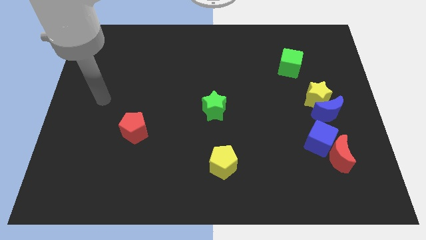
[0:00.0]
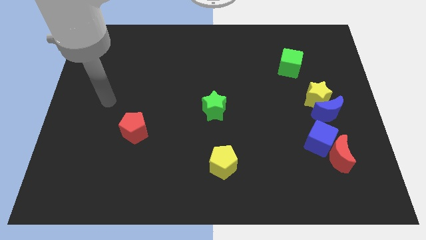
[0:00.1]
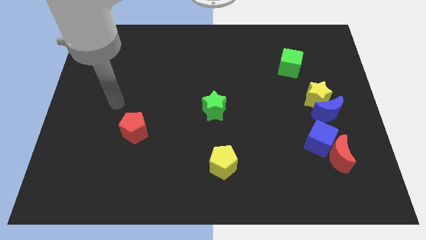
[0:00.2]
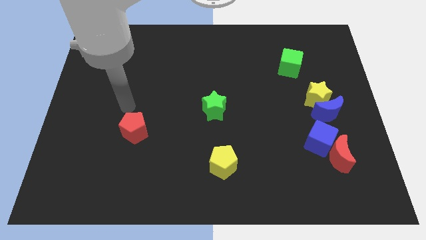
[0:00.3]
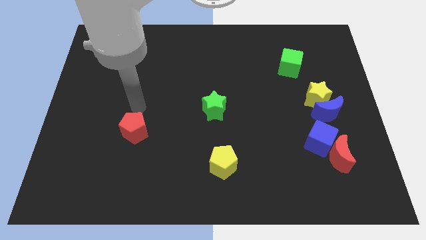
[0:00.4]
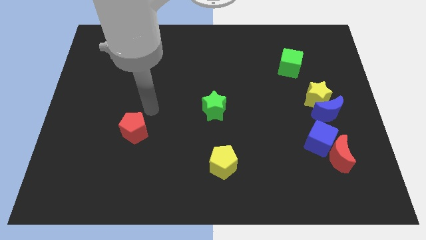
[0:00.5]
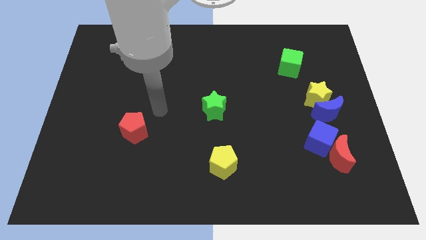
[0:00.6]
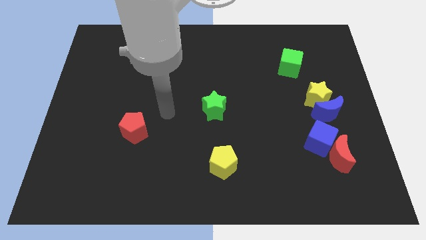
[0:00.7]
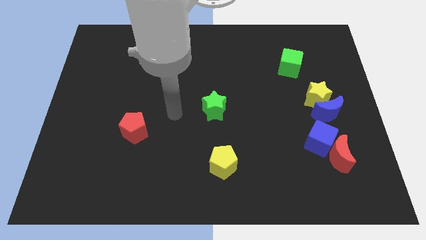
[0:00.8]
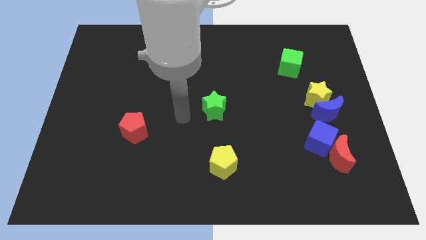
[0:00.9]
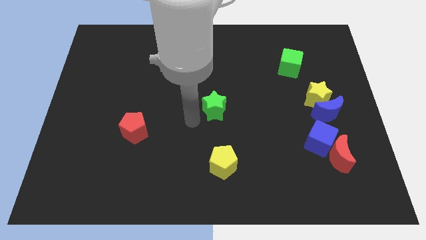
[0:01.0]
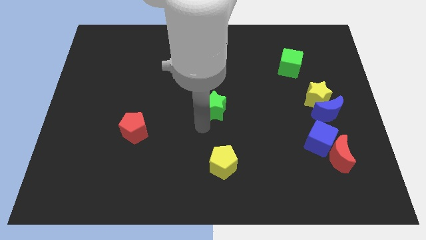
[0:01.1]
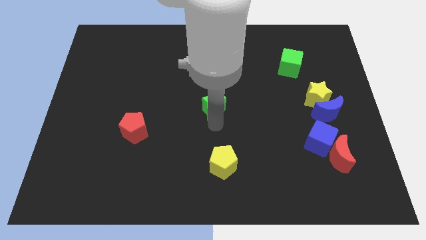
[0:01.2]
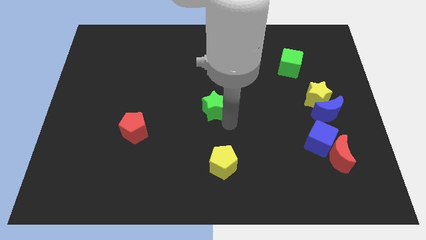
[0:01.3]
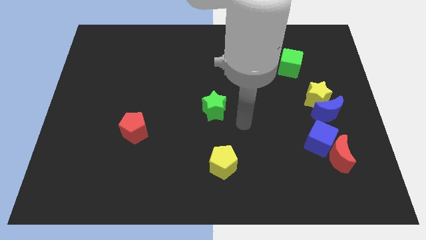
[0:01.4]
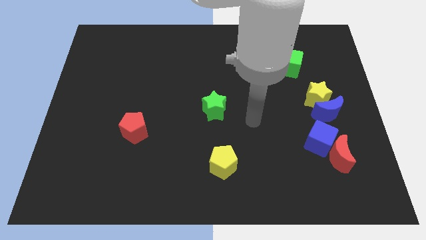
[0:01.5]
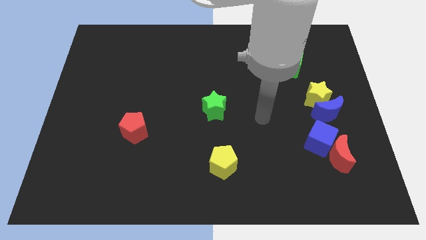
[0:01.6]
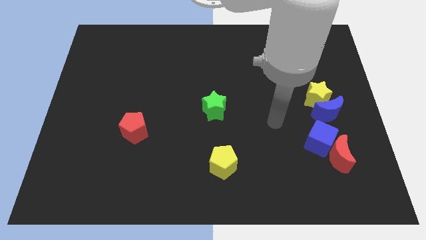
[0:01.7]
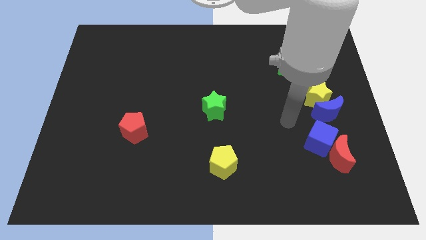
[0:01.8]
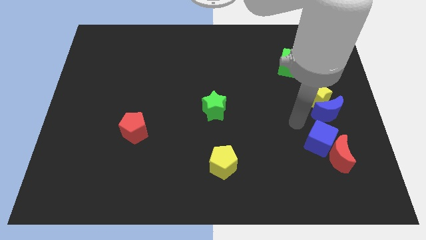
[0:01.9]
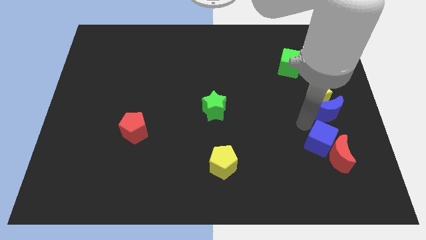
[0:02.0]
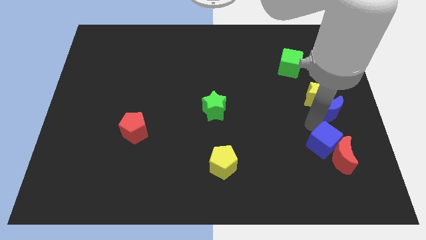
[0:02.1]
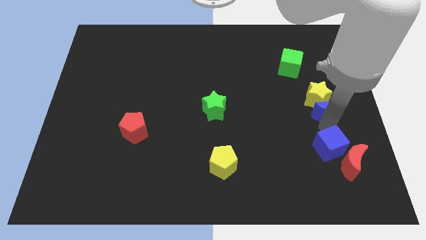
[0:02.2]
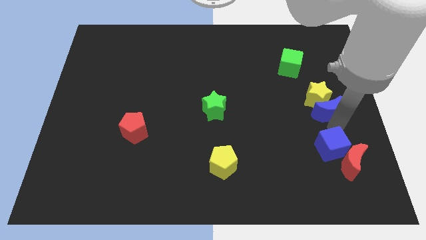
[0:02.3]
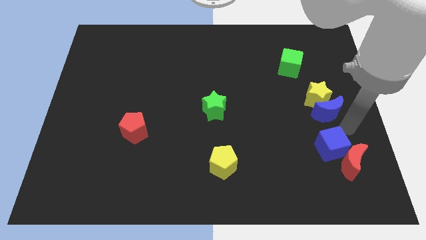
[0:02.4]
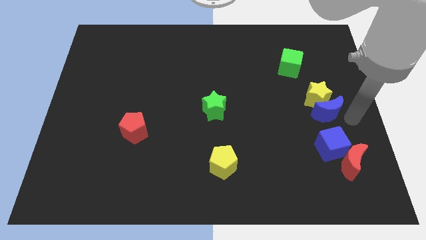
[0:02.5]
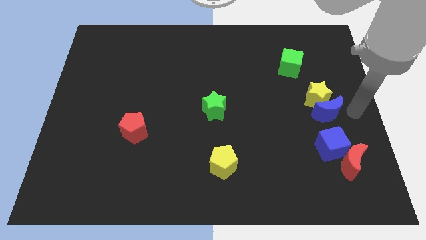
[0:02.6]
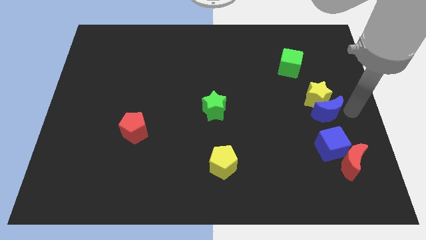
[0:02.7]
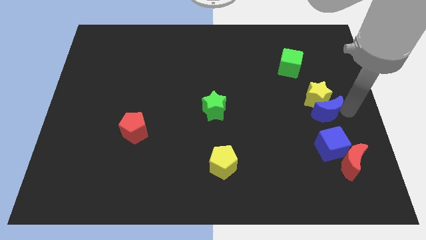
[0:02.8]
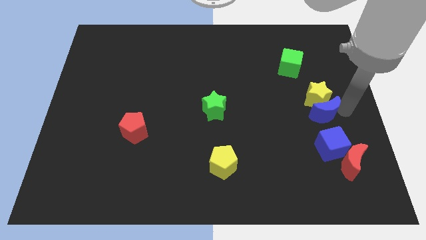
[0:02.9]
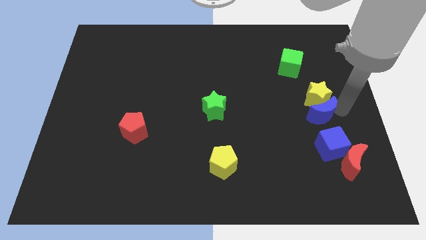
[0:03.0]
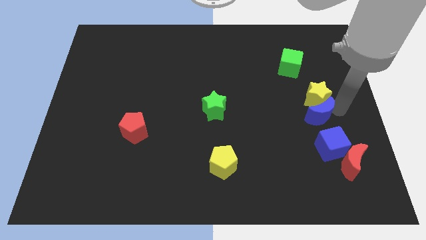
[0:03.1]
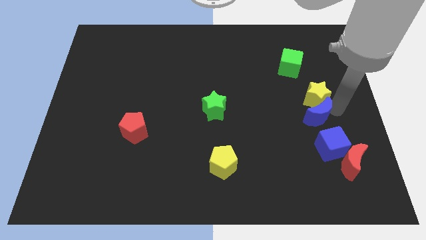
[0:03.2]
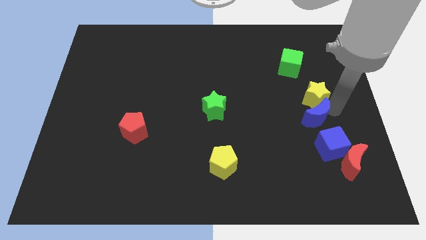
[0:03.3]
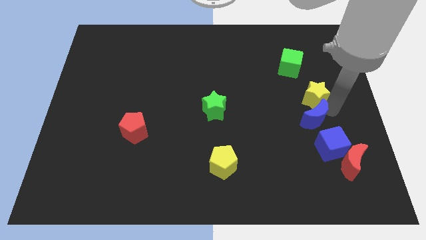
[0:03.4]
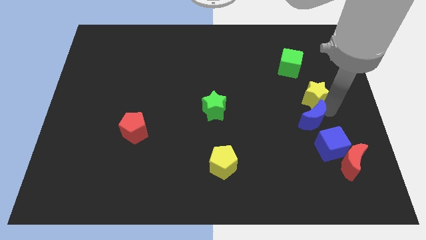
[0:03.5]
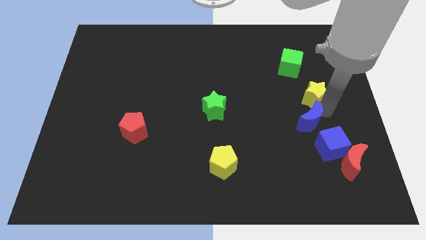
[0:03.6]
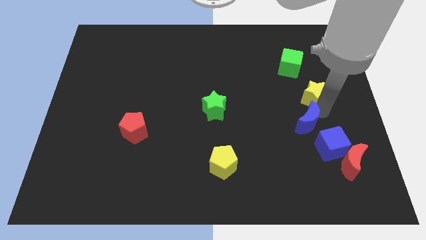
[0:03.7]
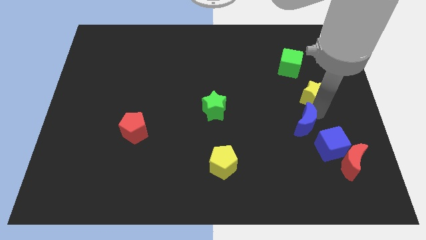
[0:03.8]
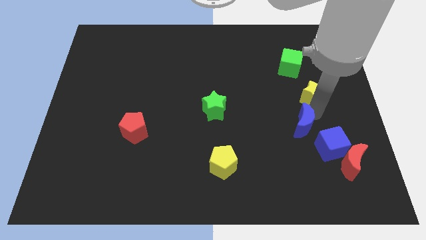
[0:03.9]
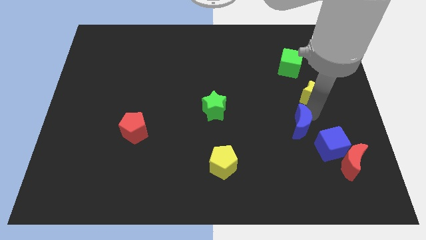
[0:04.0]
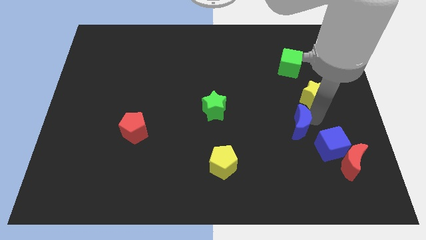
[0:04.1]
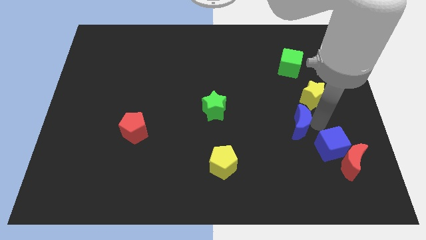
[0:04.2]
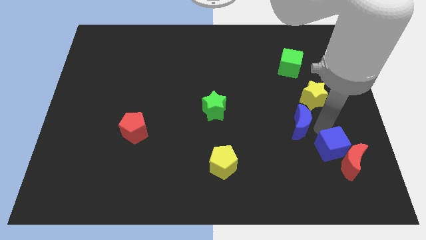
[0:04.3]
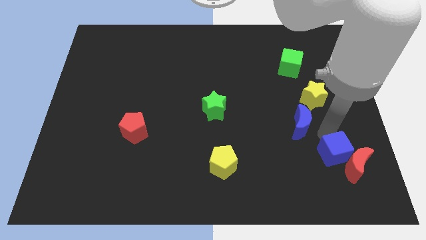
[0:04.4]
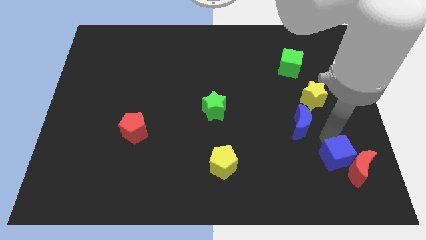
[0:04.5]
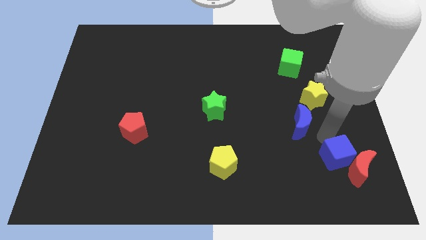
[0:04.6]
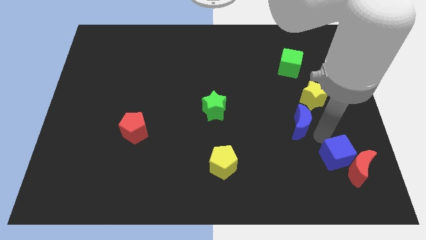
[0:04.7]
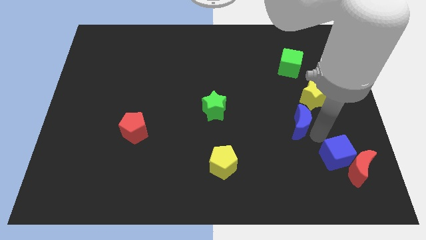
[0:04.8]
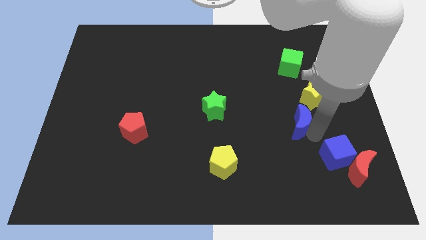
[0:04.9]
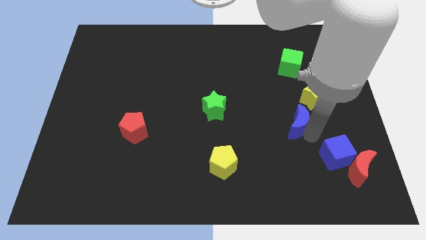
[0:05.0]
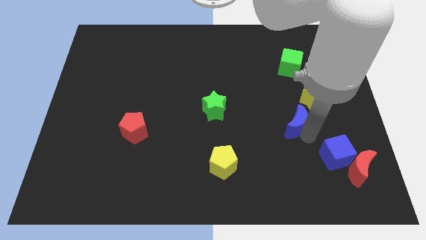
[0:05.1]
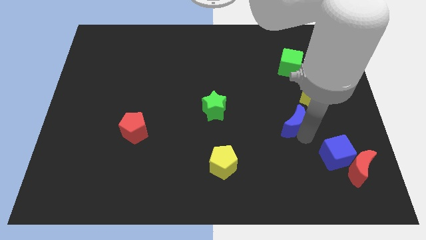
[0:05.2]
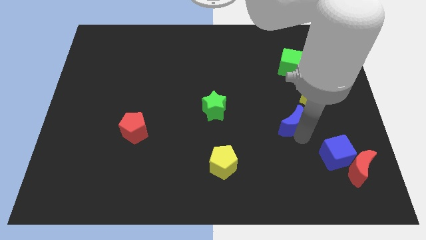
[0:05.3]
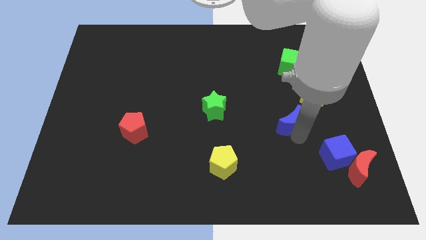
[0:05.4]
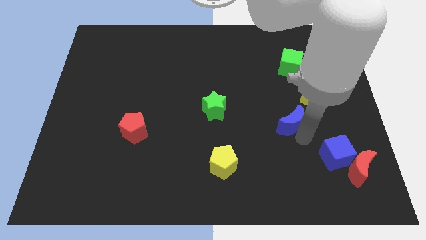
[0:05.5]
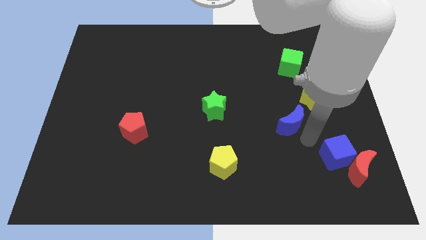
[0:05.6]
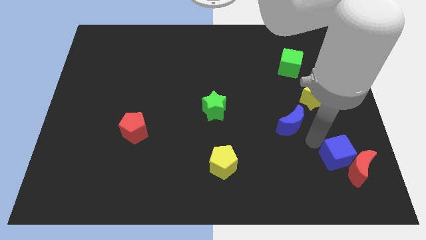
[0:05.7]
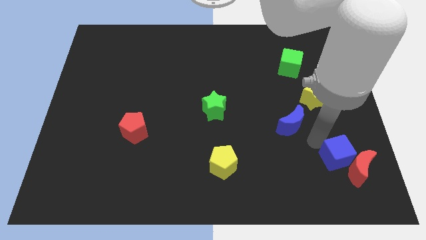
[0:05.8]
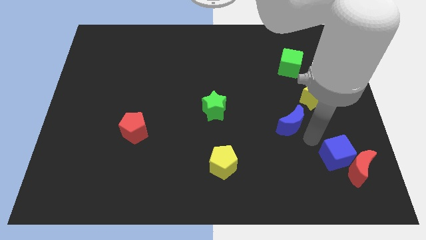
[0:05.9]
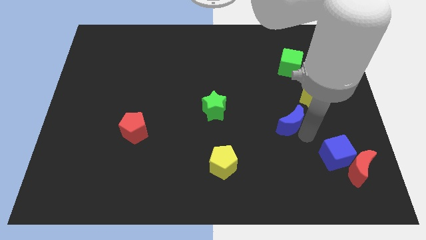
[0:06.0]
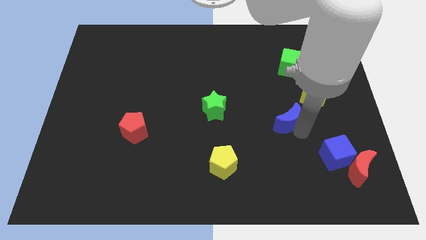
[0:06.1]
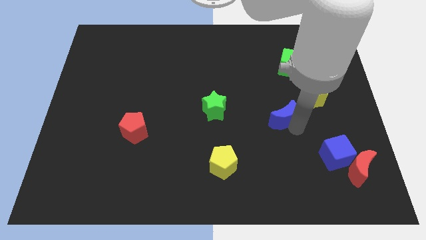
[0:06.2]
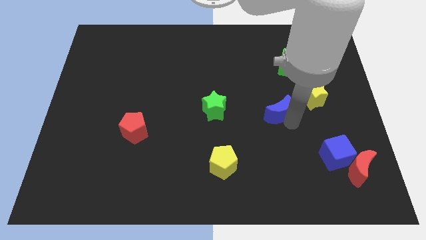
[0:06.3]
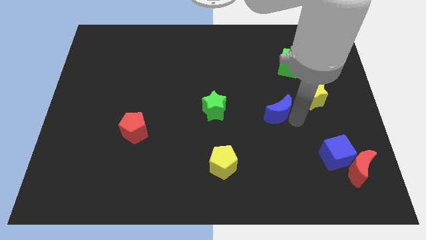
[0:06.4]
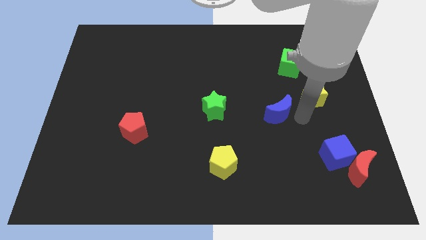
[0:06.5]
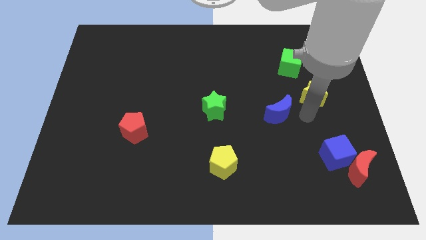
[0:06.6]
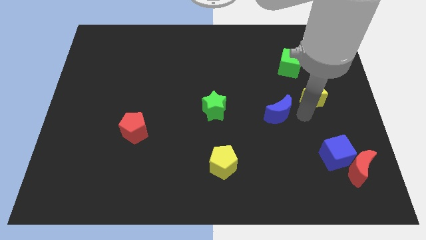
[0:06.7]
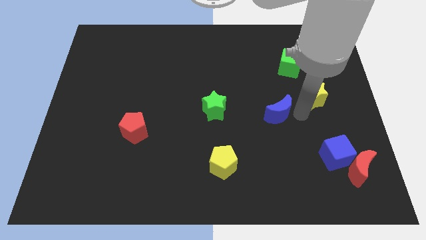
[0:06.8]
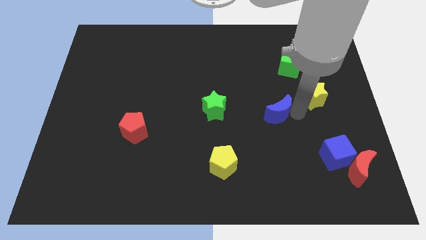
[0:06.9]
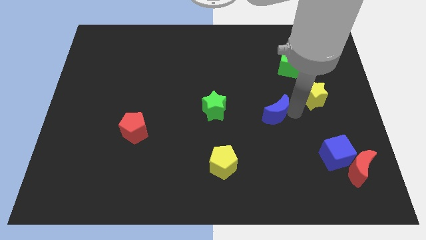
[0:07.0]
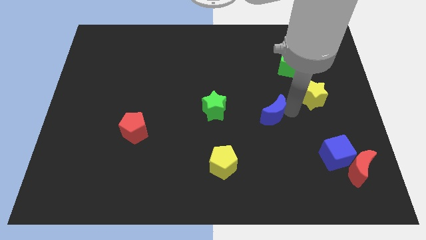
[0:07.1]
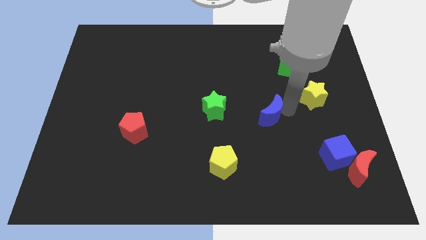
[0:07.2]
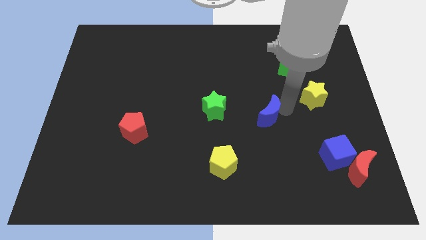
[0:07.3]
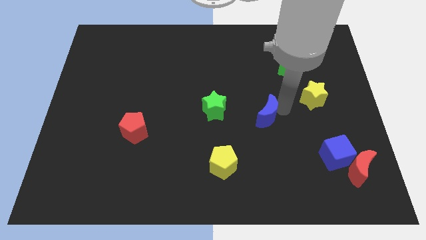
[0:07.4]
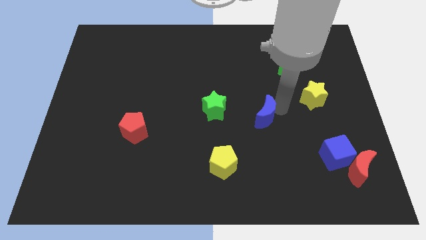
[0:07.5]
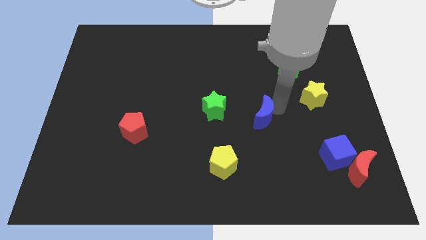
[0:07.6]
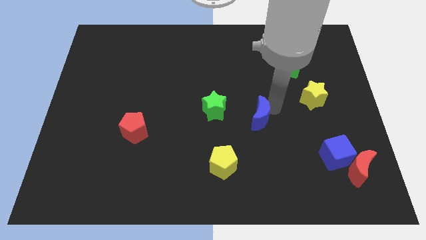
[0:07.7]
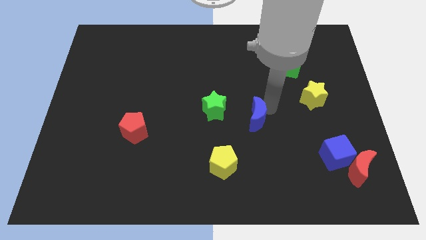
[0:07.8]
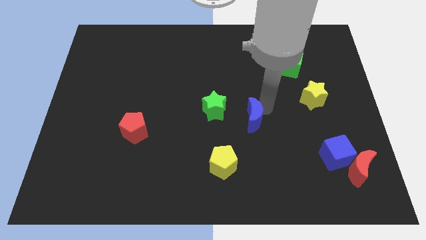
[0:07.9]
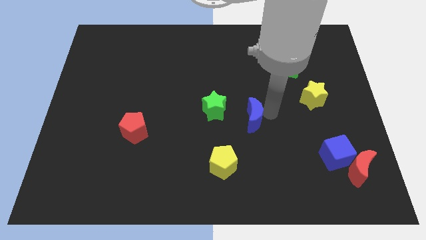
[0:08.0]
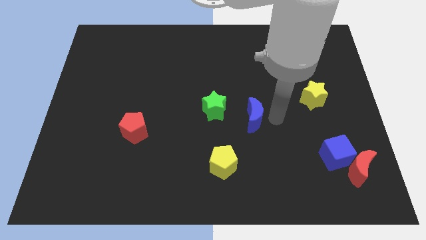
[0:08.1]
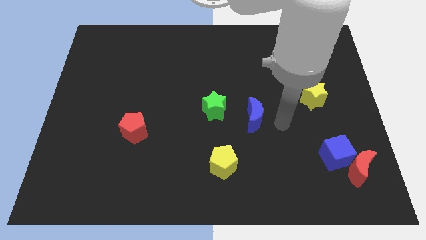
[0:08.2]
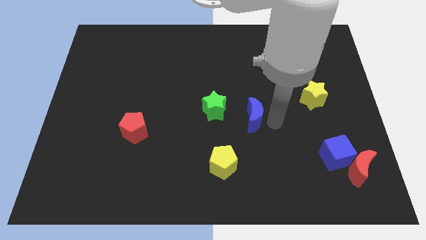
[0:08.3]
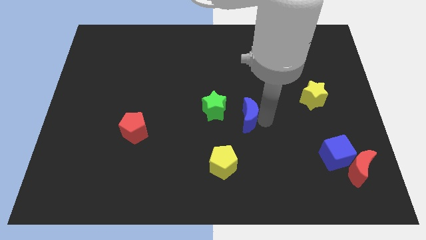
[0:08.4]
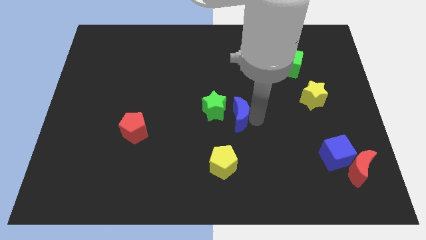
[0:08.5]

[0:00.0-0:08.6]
put the blue moon towards the green star
